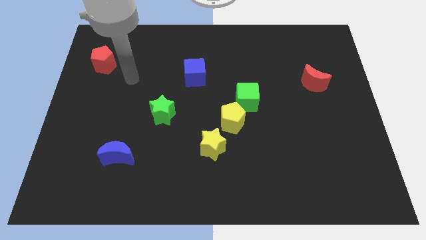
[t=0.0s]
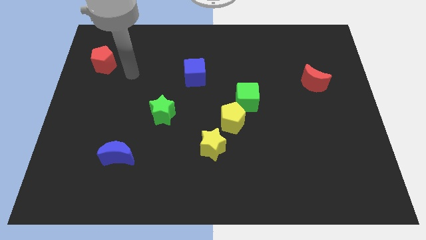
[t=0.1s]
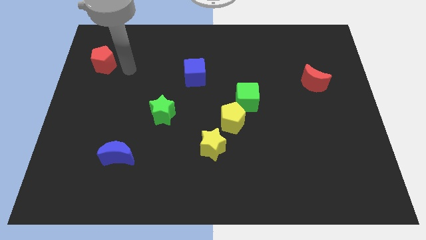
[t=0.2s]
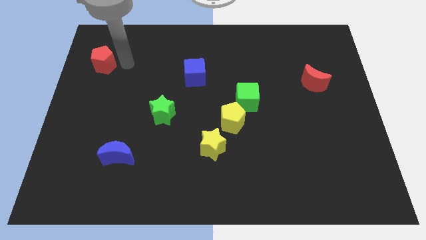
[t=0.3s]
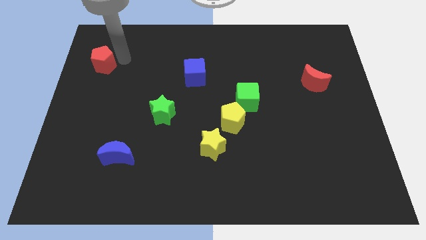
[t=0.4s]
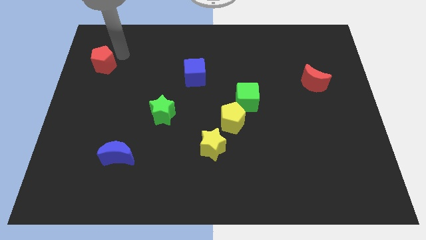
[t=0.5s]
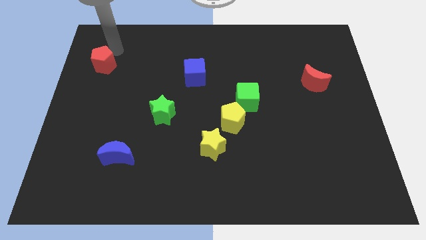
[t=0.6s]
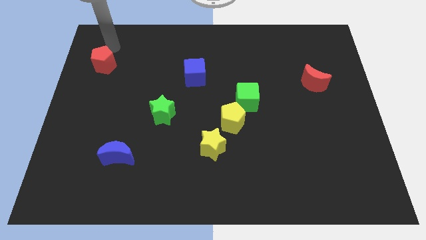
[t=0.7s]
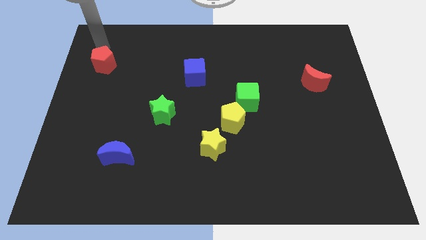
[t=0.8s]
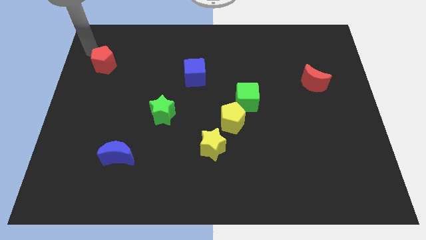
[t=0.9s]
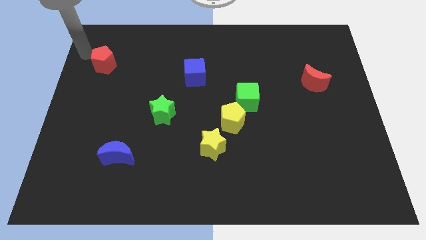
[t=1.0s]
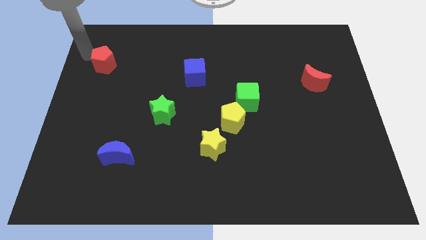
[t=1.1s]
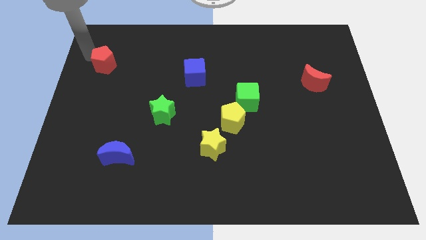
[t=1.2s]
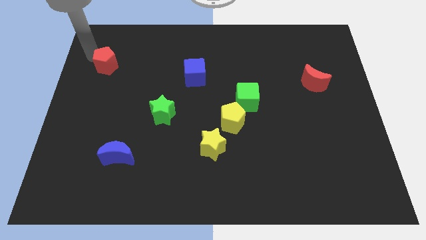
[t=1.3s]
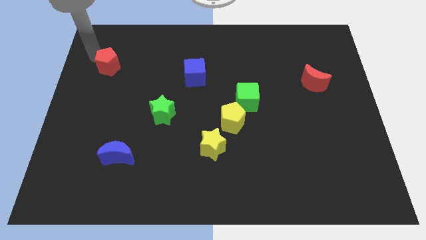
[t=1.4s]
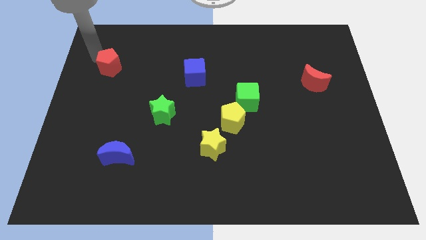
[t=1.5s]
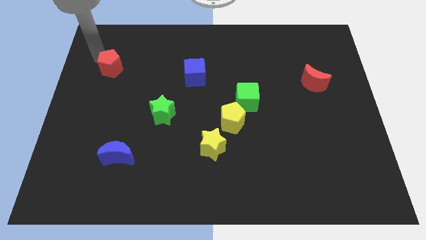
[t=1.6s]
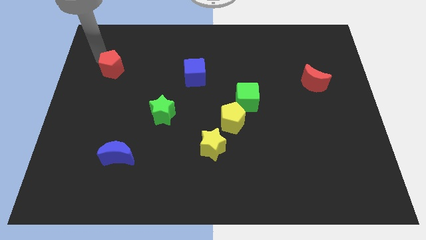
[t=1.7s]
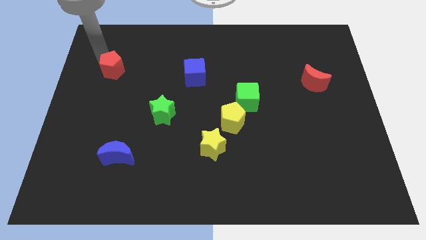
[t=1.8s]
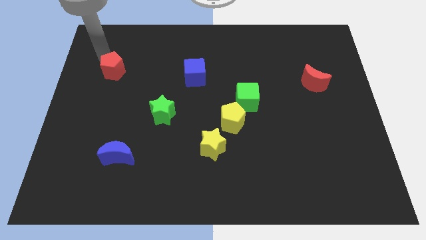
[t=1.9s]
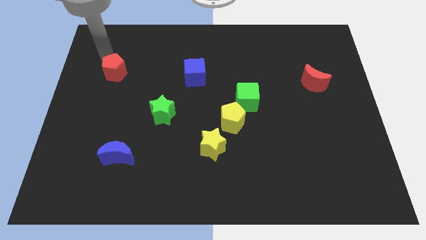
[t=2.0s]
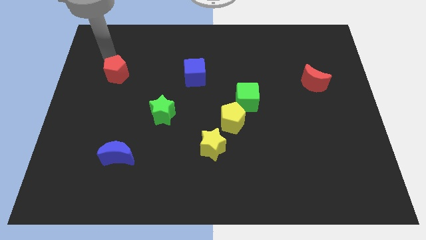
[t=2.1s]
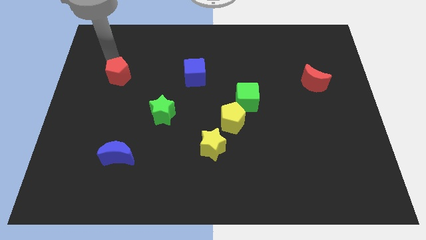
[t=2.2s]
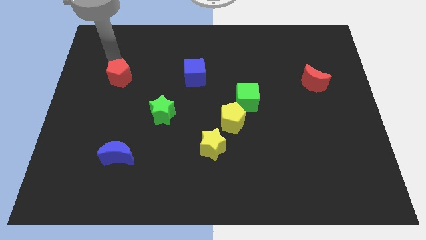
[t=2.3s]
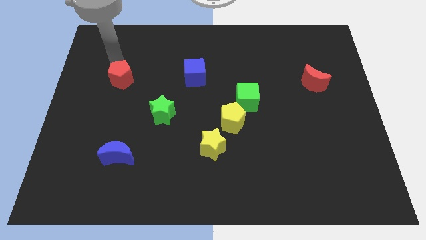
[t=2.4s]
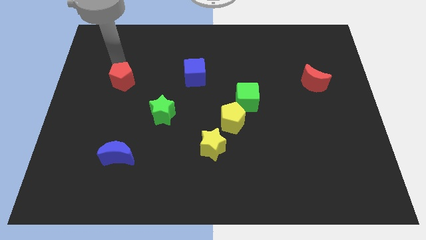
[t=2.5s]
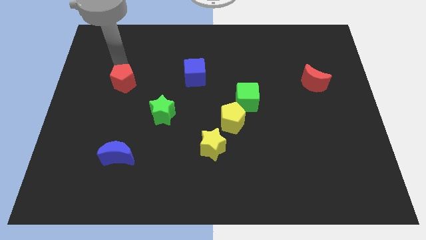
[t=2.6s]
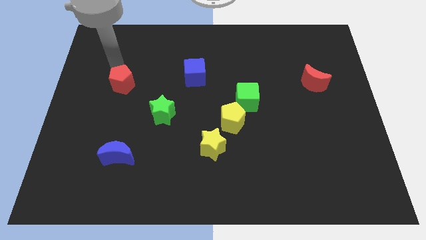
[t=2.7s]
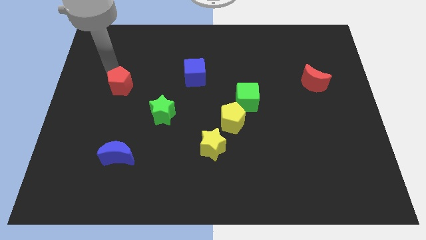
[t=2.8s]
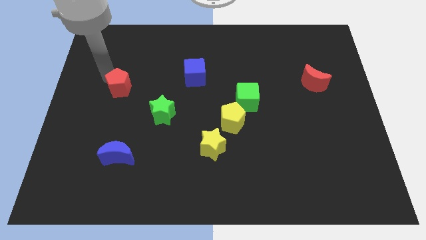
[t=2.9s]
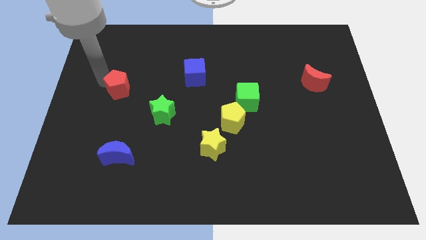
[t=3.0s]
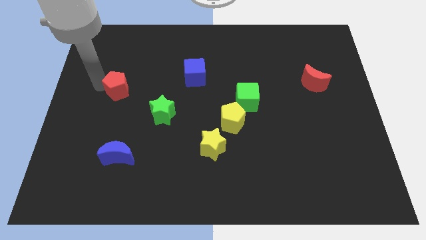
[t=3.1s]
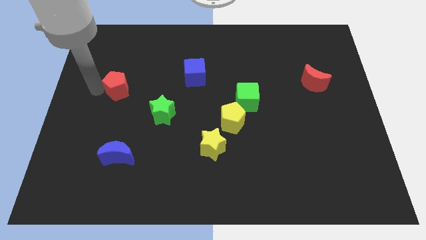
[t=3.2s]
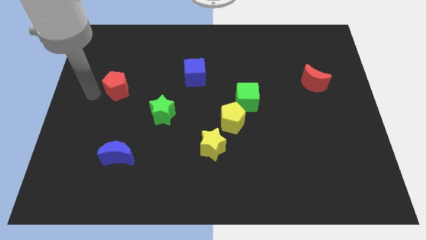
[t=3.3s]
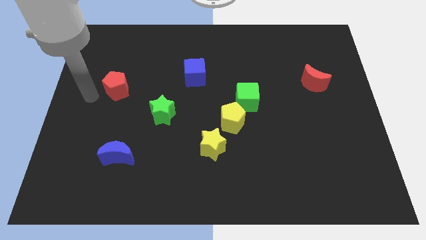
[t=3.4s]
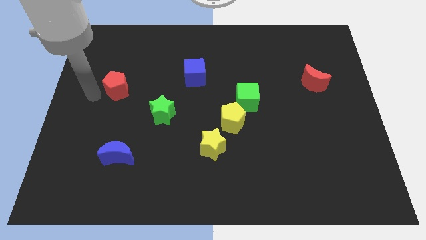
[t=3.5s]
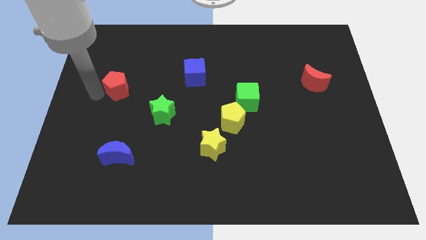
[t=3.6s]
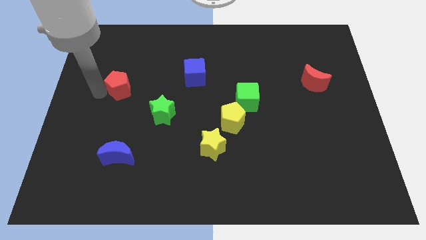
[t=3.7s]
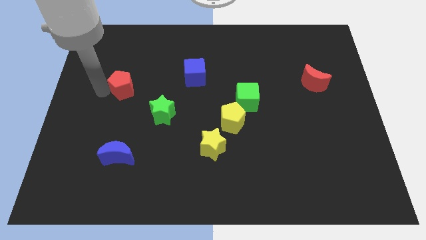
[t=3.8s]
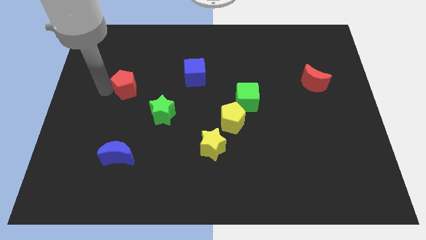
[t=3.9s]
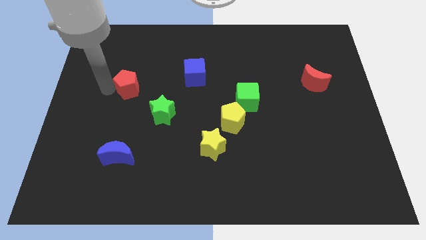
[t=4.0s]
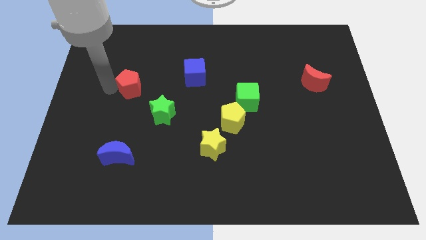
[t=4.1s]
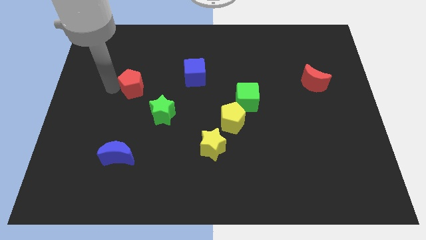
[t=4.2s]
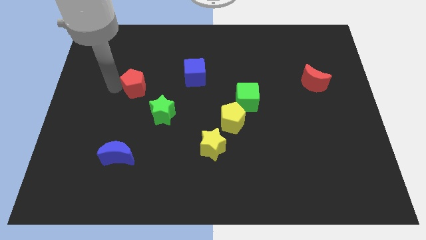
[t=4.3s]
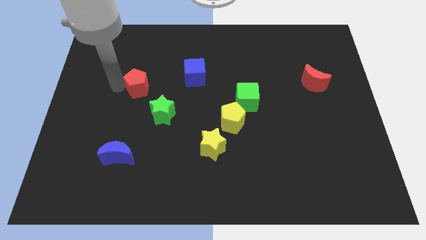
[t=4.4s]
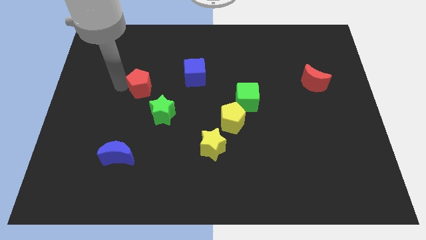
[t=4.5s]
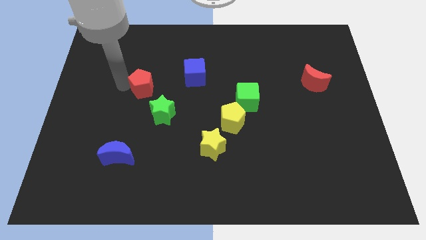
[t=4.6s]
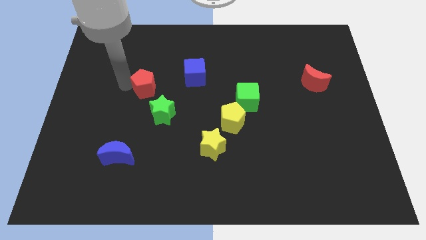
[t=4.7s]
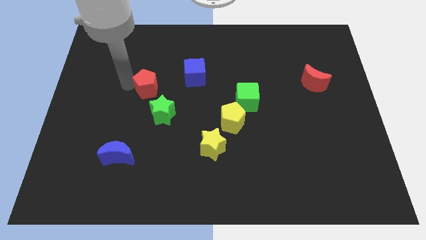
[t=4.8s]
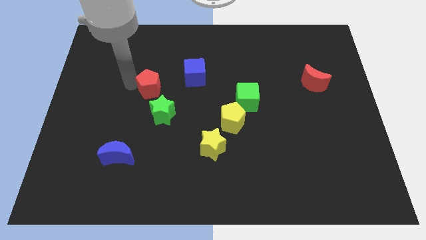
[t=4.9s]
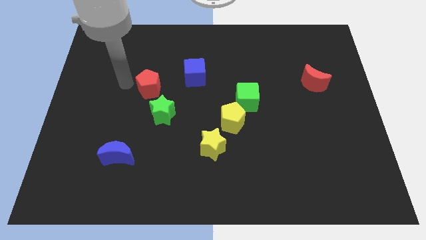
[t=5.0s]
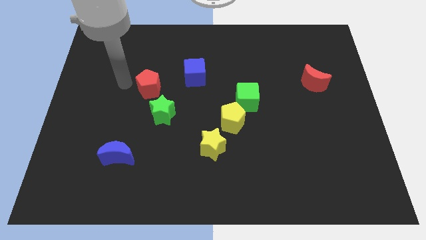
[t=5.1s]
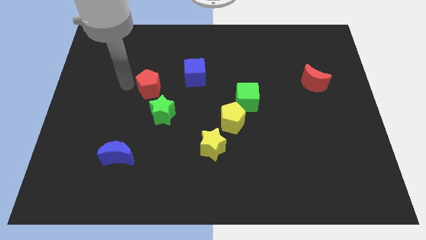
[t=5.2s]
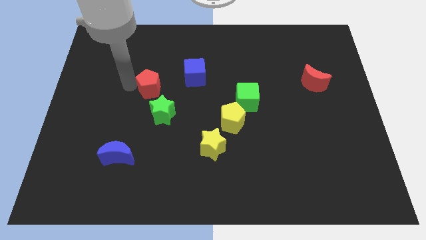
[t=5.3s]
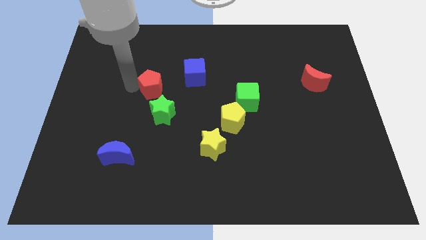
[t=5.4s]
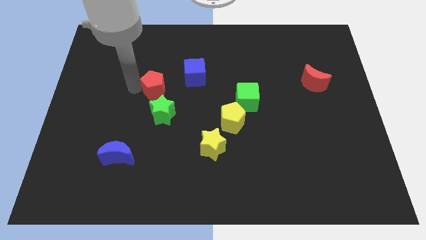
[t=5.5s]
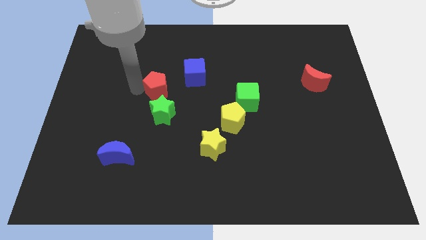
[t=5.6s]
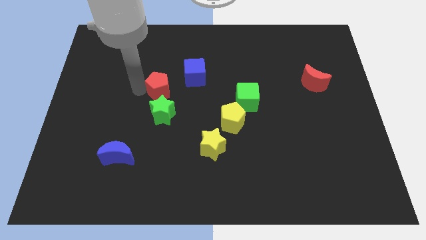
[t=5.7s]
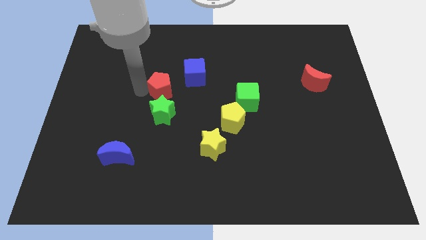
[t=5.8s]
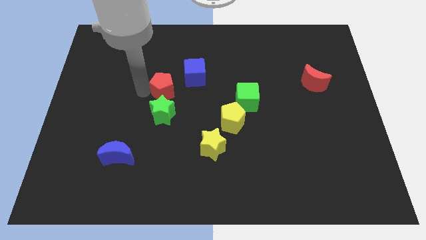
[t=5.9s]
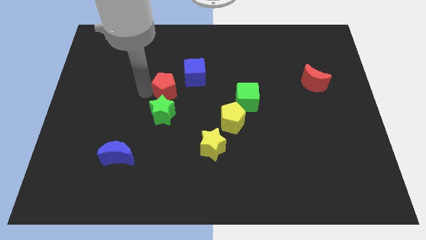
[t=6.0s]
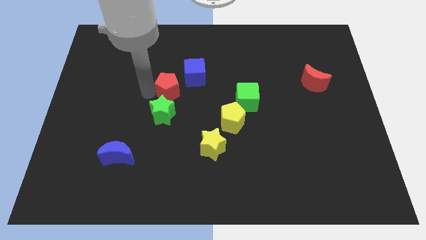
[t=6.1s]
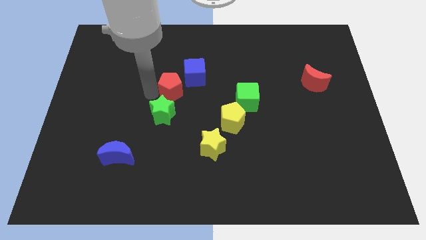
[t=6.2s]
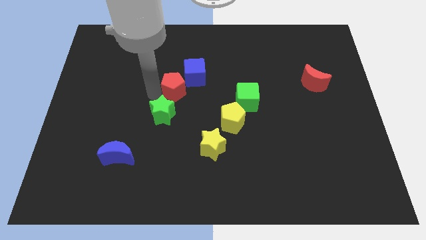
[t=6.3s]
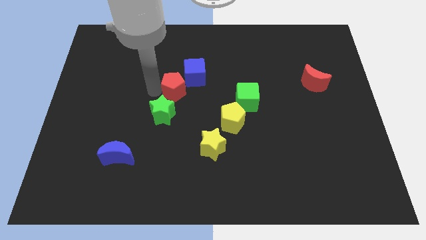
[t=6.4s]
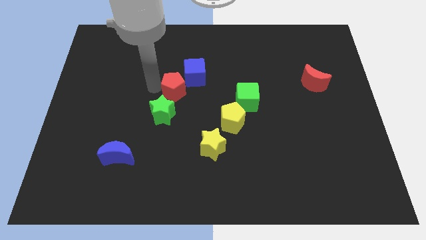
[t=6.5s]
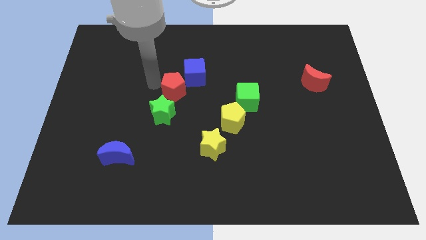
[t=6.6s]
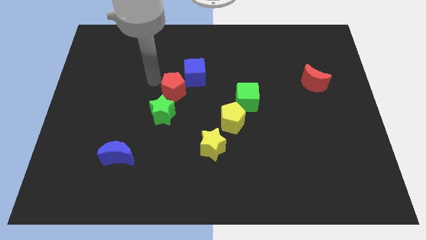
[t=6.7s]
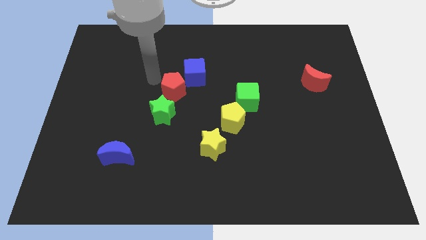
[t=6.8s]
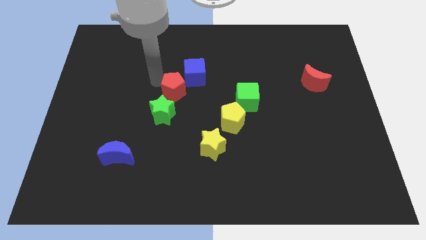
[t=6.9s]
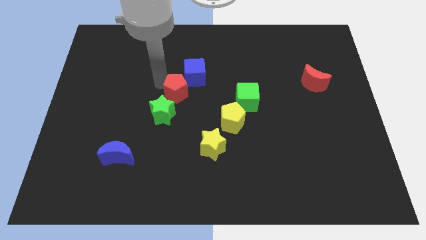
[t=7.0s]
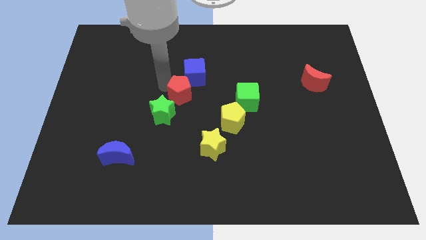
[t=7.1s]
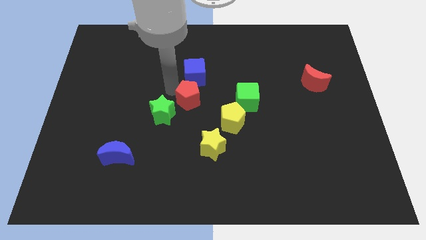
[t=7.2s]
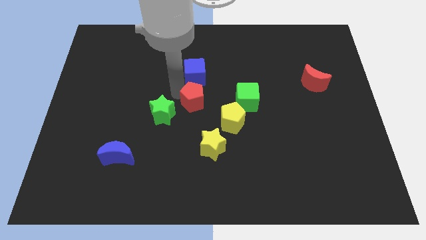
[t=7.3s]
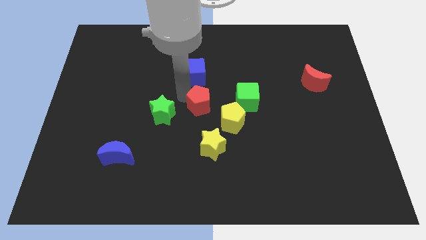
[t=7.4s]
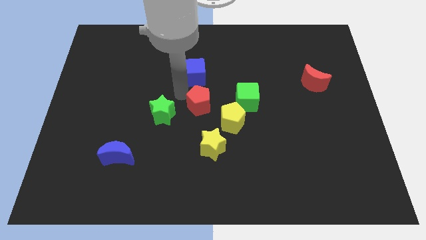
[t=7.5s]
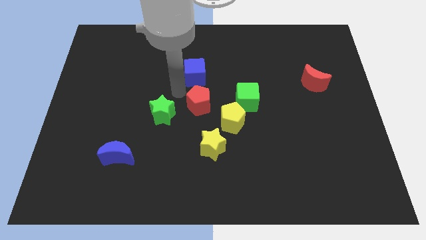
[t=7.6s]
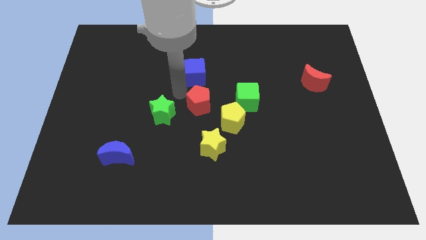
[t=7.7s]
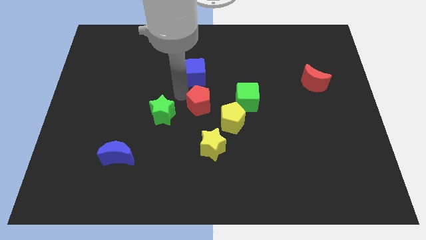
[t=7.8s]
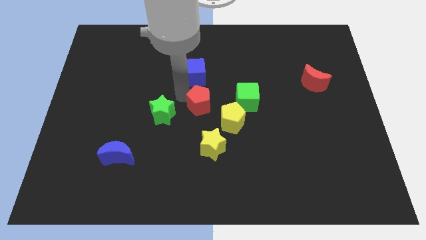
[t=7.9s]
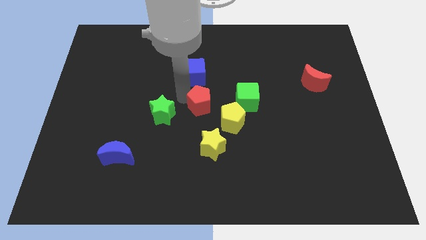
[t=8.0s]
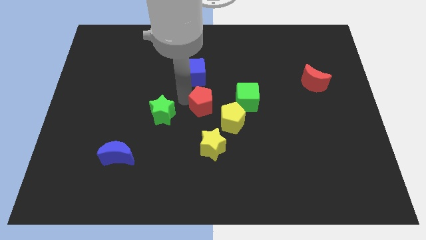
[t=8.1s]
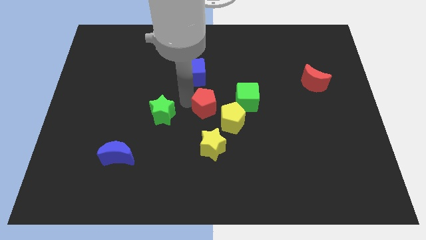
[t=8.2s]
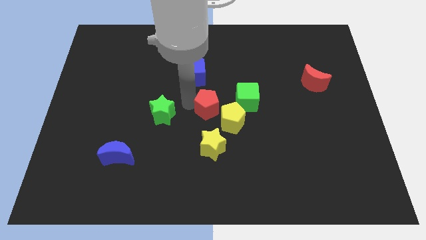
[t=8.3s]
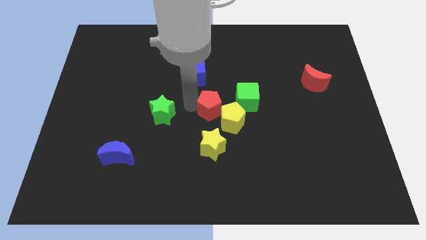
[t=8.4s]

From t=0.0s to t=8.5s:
put the red pentagon next to the yellow pentagon
